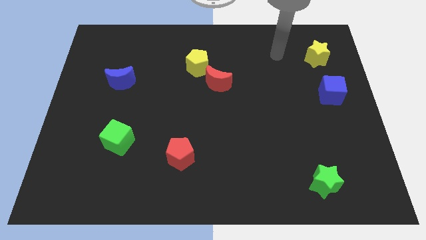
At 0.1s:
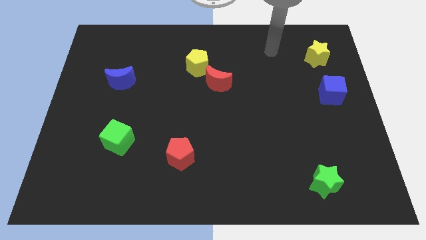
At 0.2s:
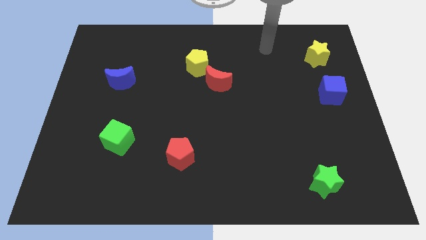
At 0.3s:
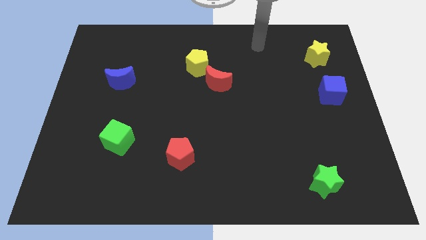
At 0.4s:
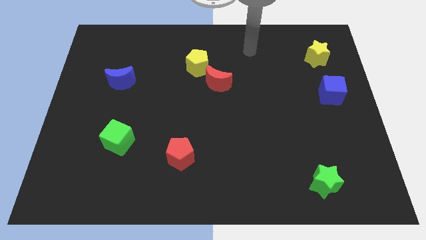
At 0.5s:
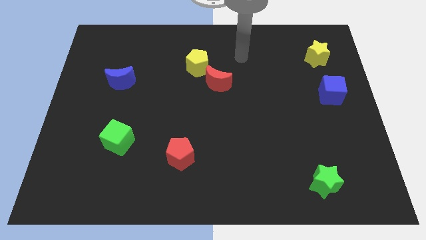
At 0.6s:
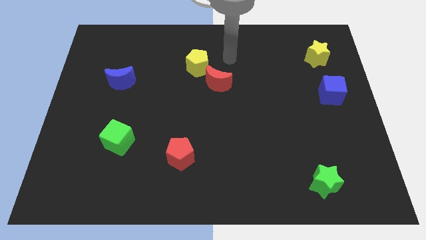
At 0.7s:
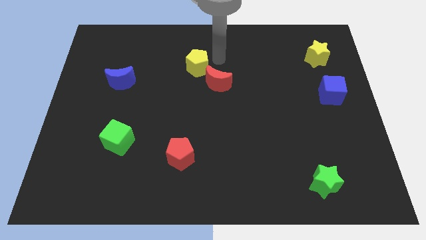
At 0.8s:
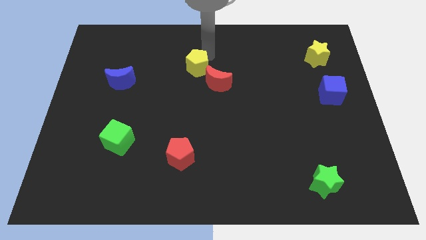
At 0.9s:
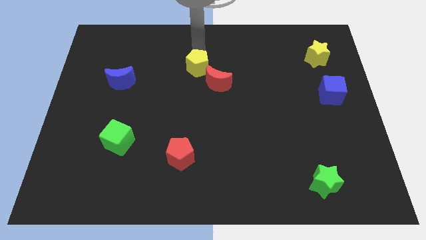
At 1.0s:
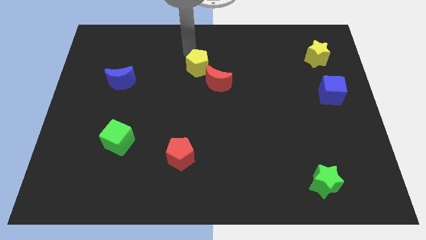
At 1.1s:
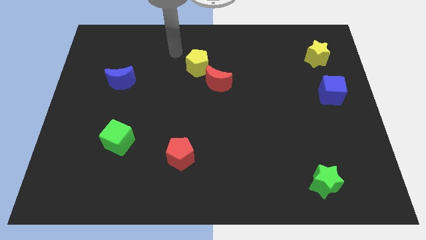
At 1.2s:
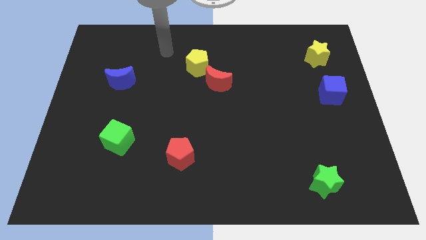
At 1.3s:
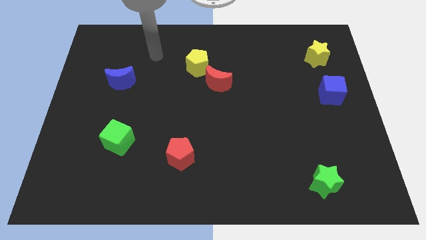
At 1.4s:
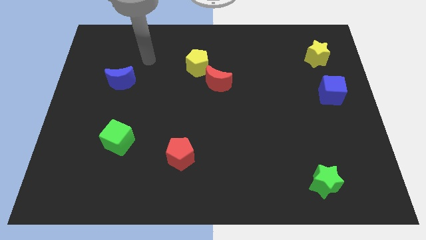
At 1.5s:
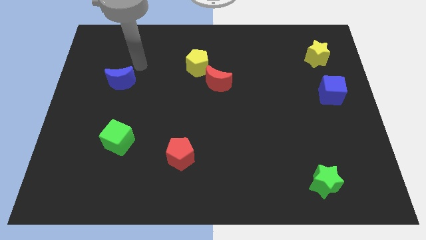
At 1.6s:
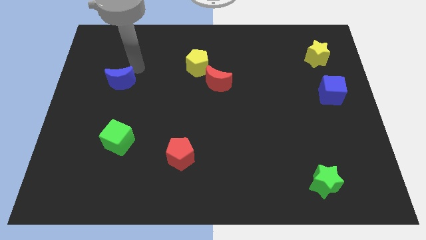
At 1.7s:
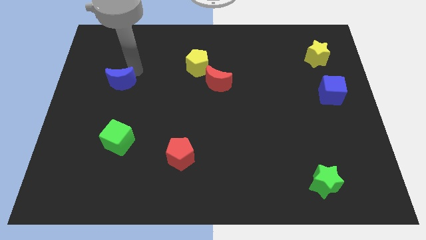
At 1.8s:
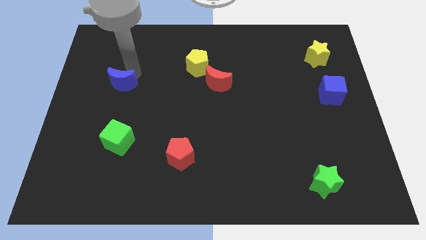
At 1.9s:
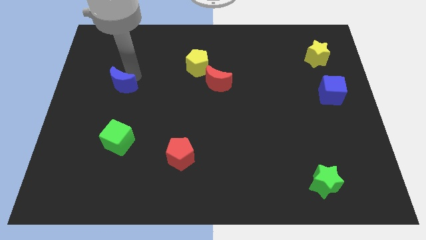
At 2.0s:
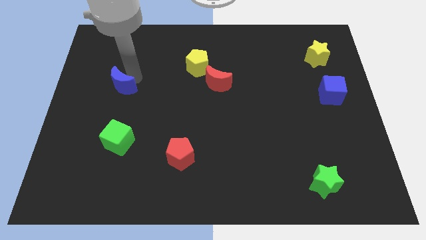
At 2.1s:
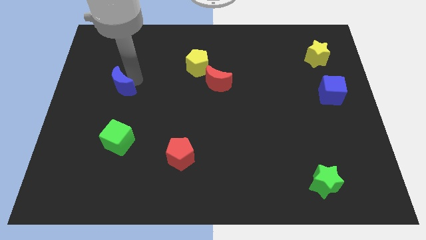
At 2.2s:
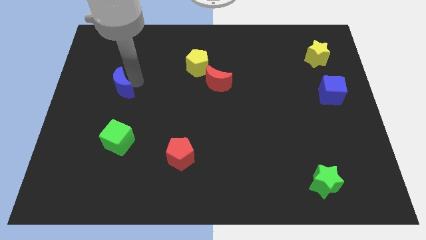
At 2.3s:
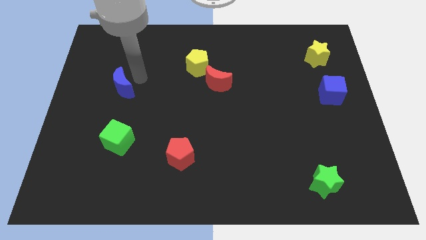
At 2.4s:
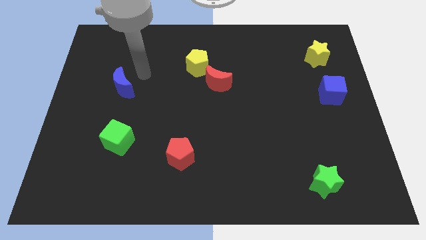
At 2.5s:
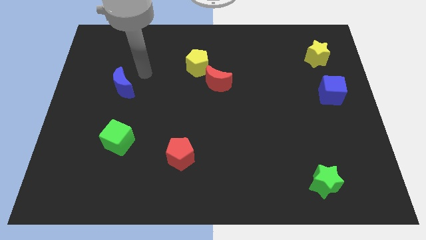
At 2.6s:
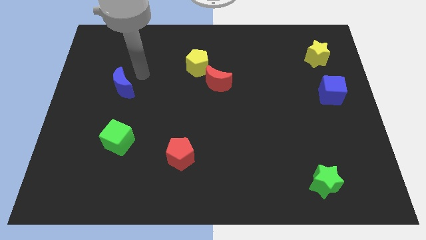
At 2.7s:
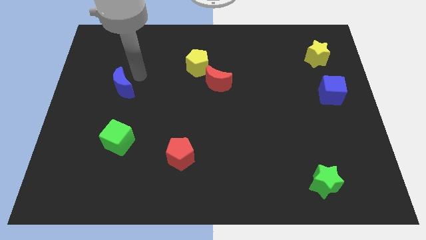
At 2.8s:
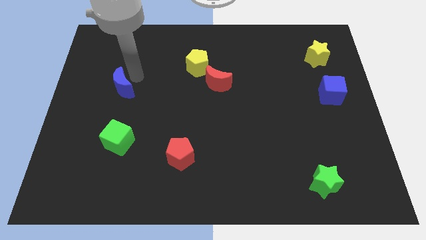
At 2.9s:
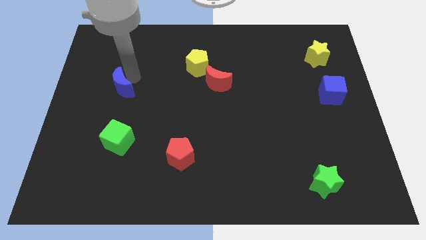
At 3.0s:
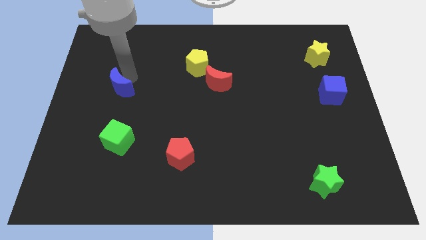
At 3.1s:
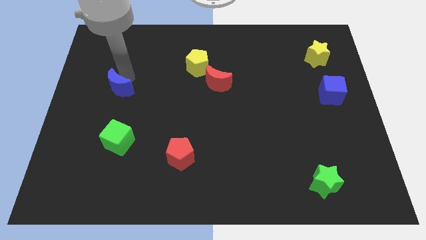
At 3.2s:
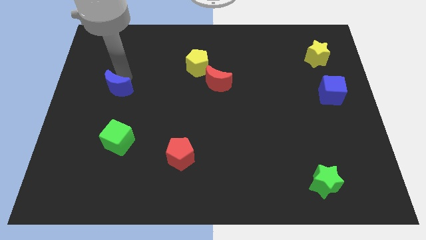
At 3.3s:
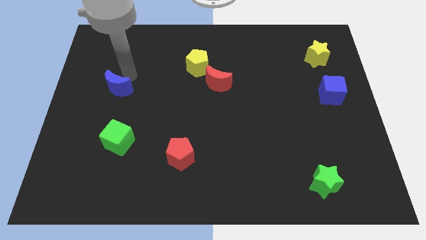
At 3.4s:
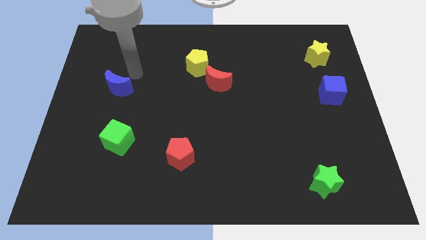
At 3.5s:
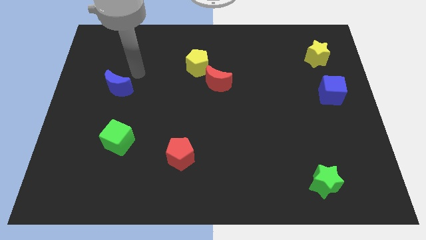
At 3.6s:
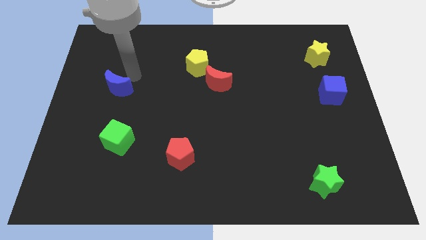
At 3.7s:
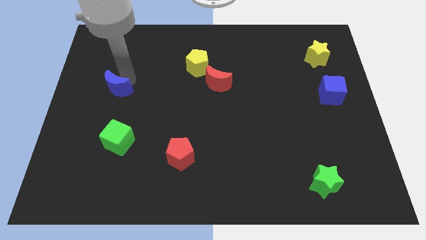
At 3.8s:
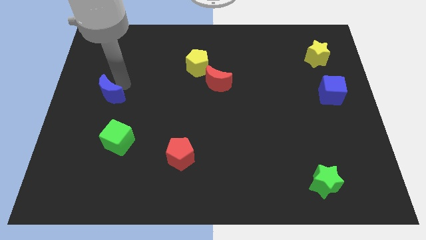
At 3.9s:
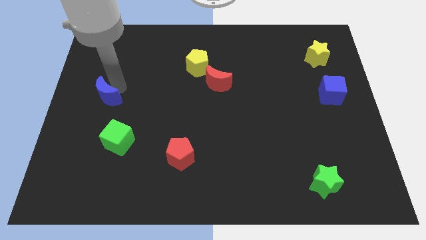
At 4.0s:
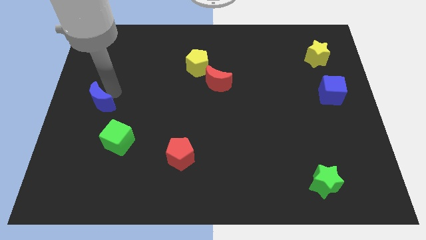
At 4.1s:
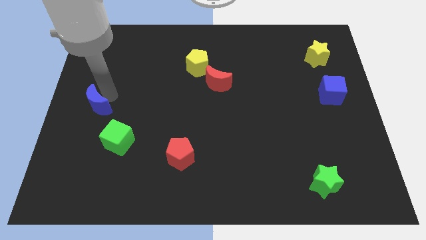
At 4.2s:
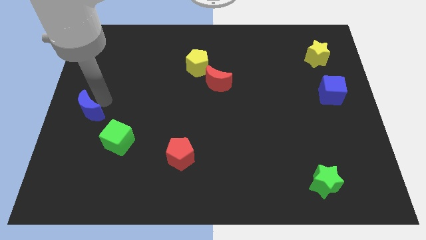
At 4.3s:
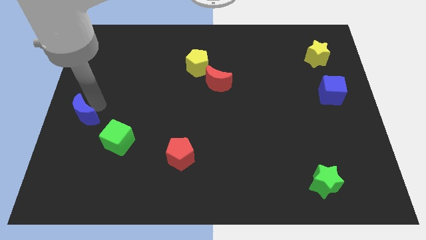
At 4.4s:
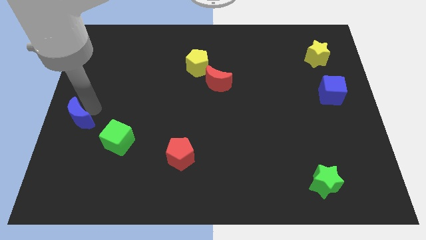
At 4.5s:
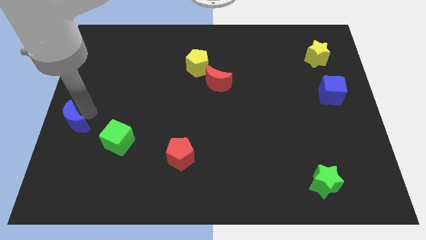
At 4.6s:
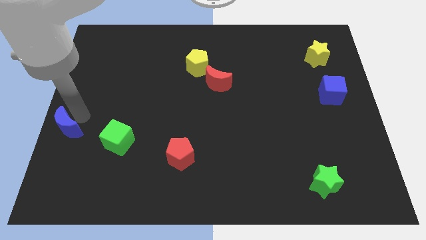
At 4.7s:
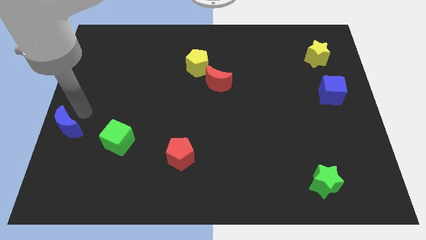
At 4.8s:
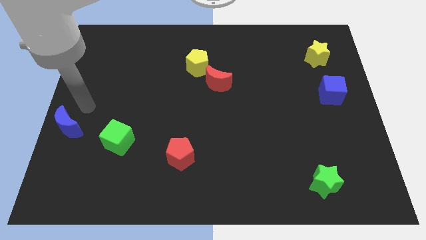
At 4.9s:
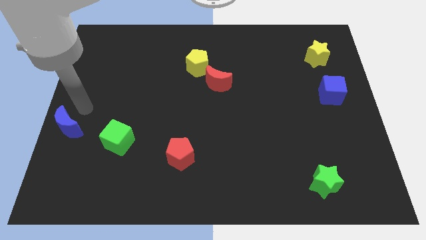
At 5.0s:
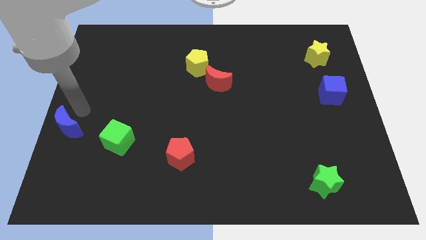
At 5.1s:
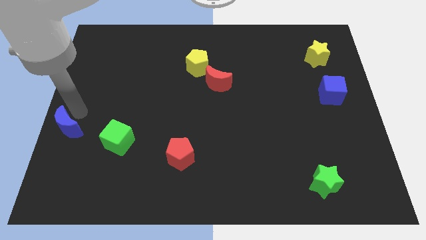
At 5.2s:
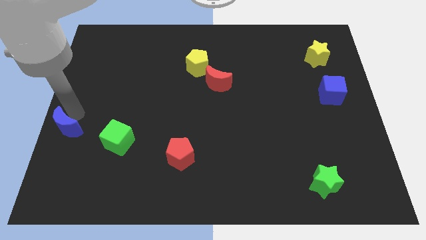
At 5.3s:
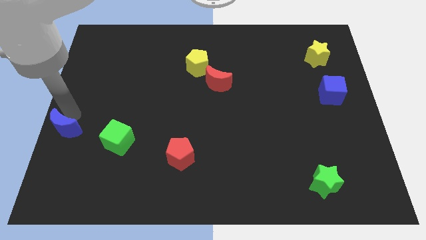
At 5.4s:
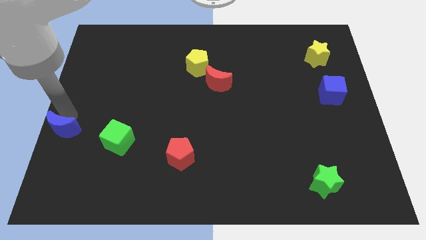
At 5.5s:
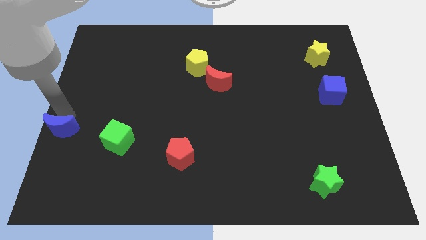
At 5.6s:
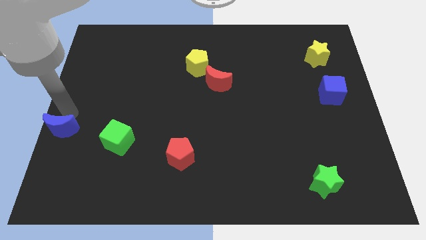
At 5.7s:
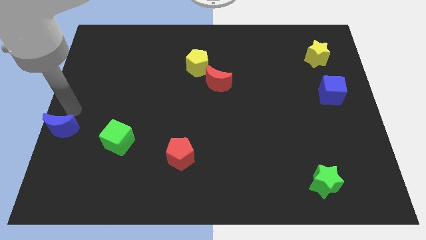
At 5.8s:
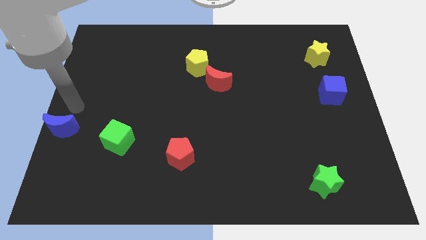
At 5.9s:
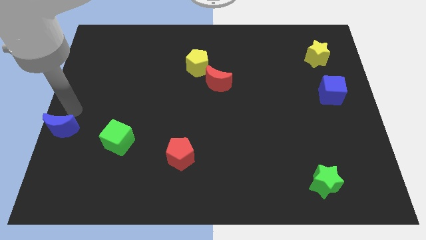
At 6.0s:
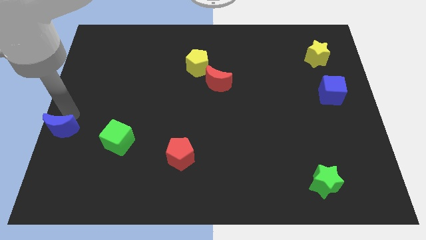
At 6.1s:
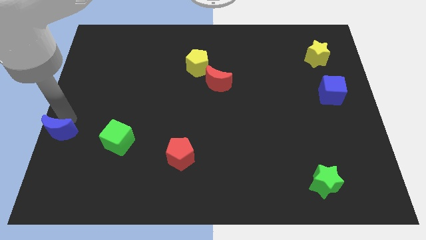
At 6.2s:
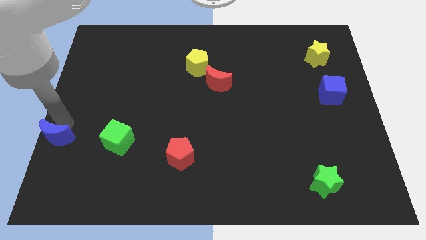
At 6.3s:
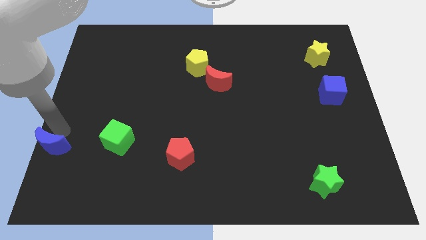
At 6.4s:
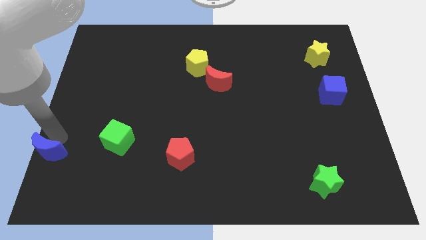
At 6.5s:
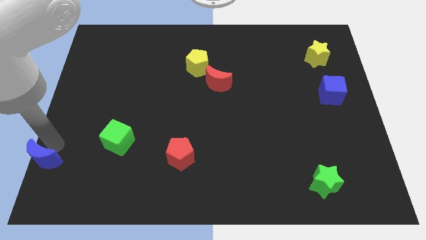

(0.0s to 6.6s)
move the blue moon to the bottom left
